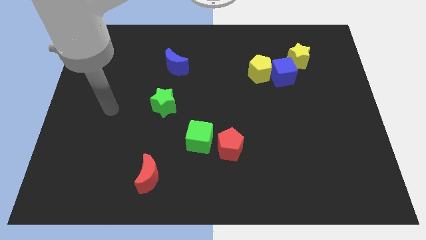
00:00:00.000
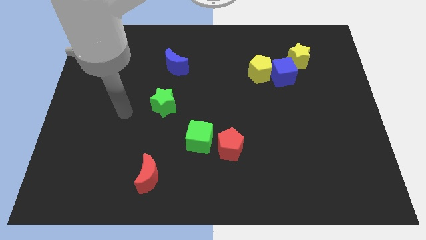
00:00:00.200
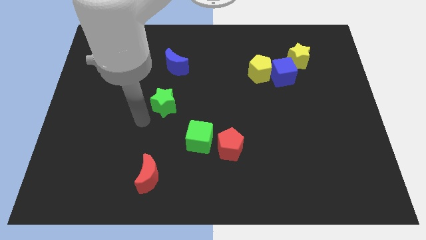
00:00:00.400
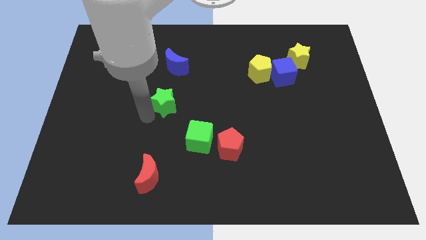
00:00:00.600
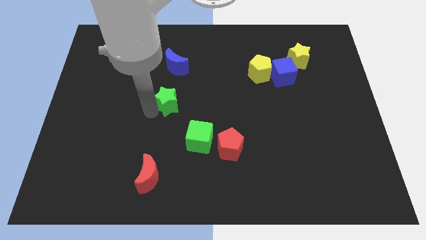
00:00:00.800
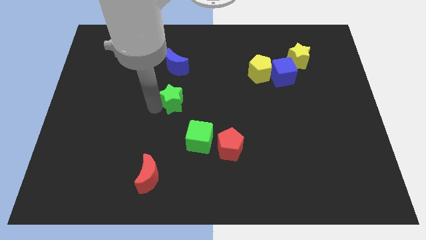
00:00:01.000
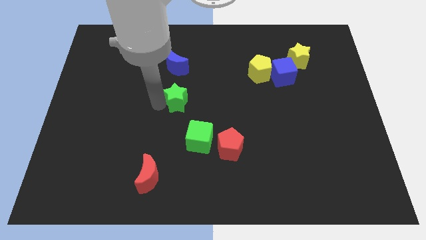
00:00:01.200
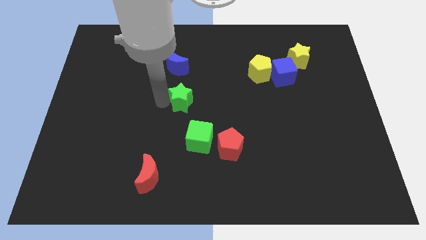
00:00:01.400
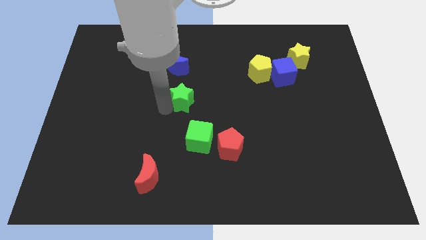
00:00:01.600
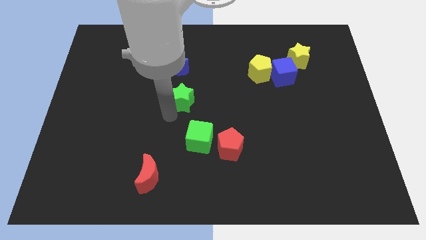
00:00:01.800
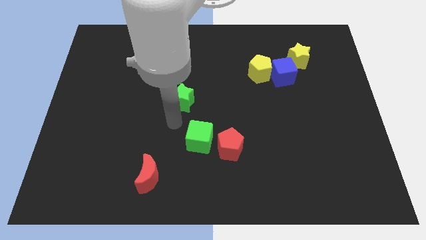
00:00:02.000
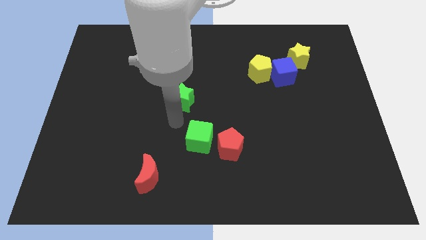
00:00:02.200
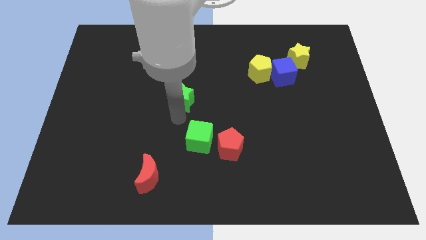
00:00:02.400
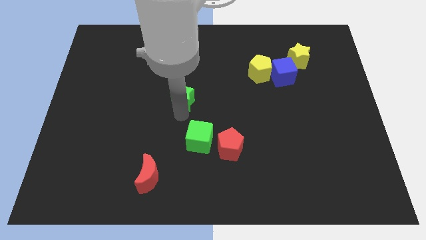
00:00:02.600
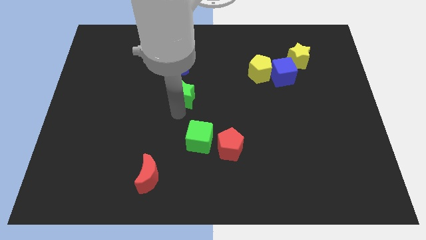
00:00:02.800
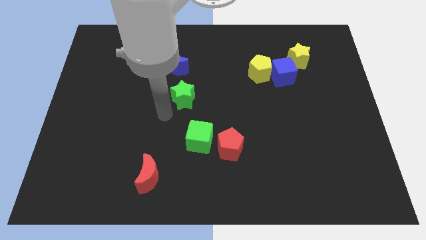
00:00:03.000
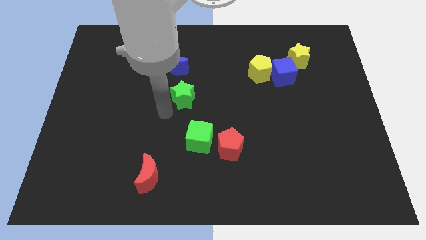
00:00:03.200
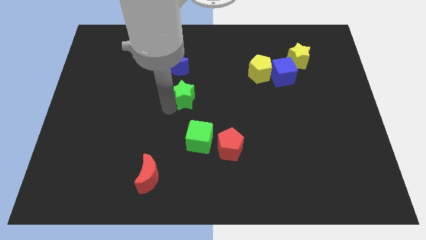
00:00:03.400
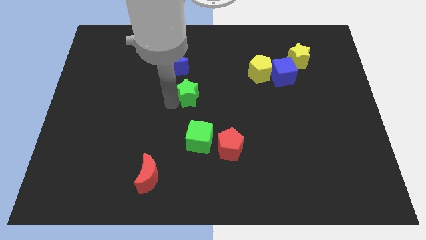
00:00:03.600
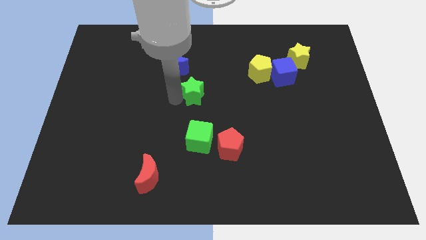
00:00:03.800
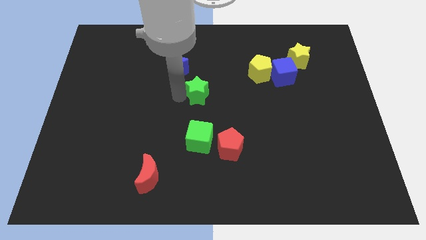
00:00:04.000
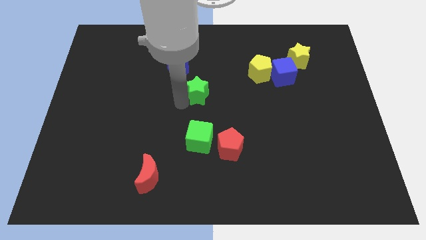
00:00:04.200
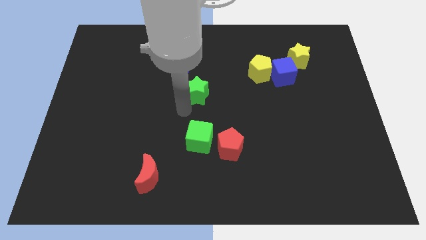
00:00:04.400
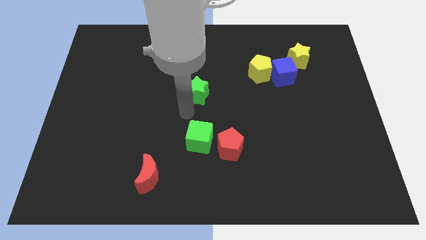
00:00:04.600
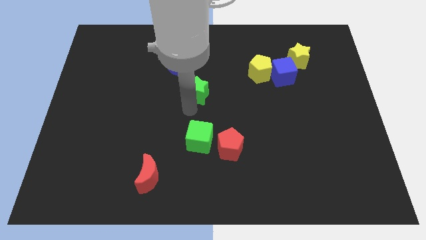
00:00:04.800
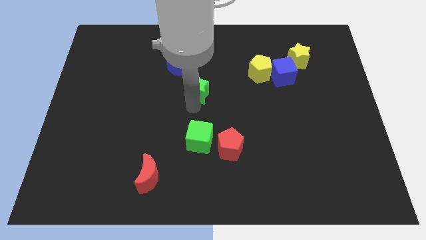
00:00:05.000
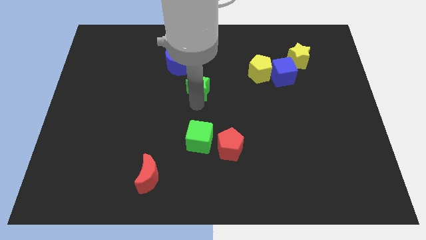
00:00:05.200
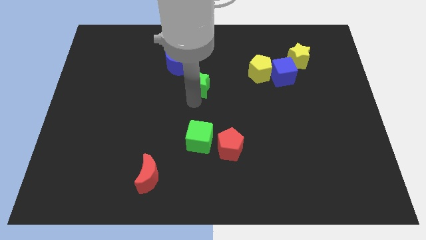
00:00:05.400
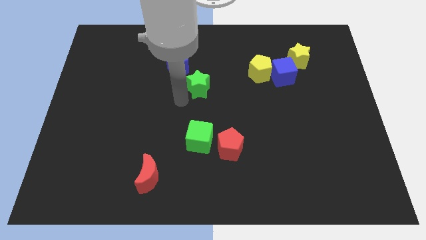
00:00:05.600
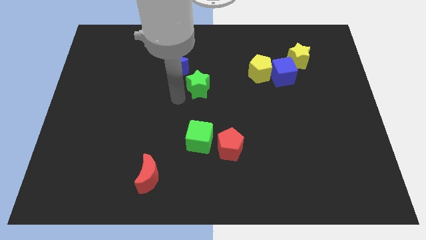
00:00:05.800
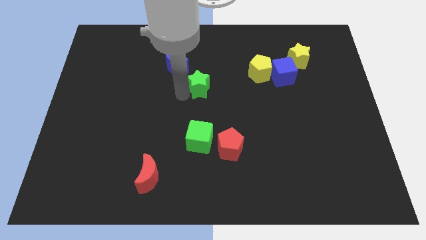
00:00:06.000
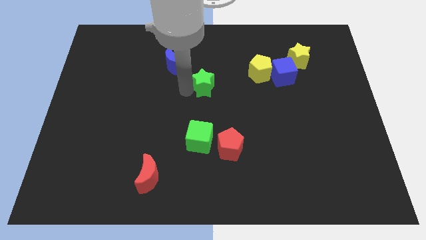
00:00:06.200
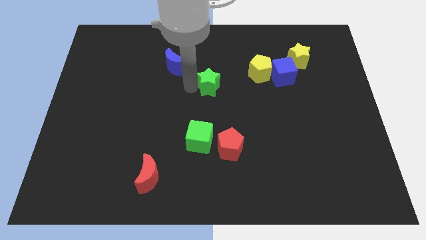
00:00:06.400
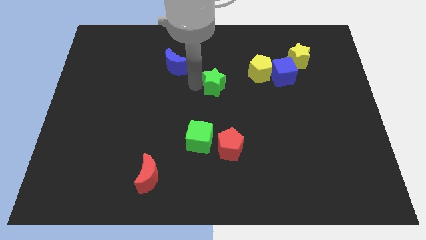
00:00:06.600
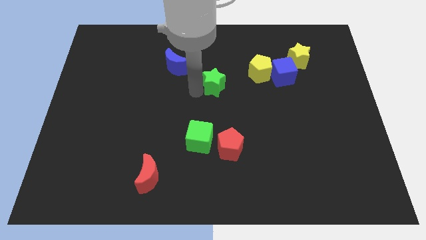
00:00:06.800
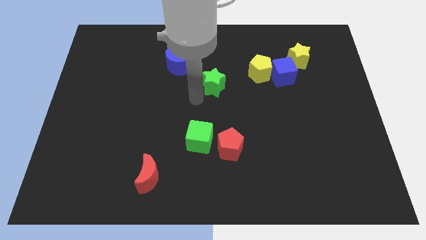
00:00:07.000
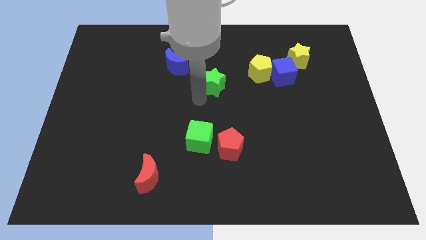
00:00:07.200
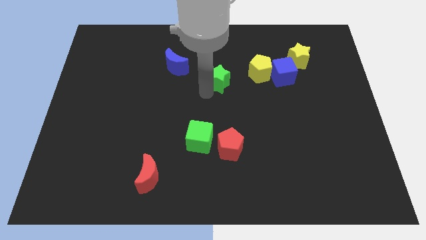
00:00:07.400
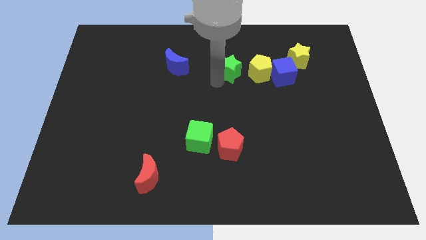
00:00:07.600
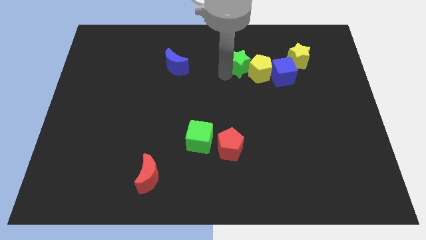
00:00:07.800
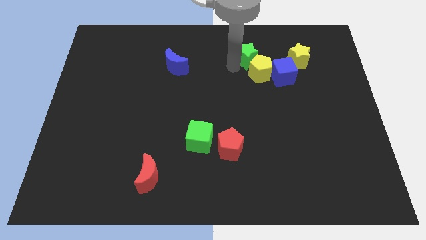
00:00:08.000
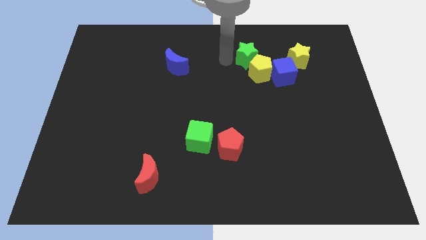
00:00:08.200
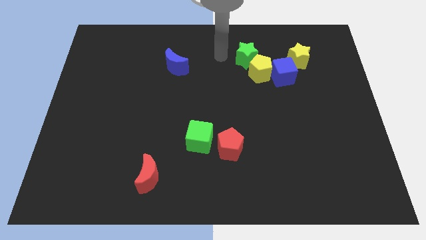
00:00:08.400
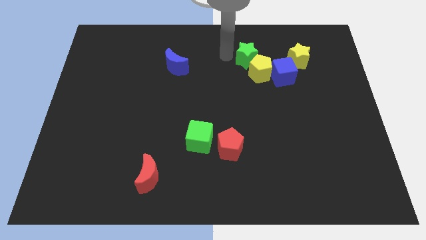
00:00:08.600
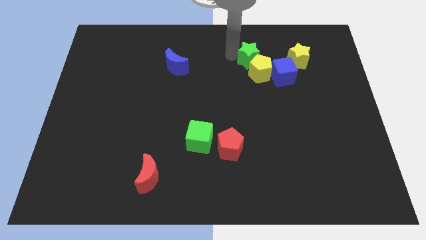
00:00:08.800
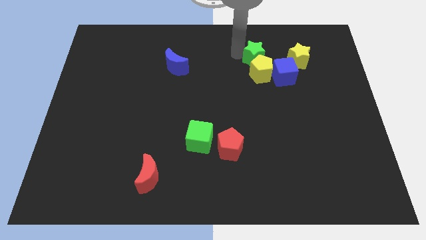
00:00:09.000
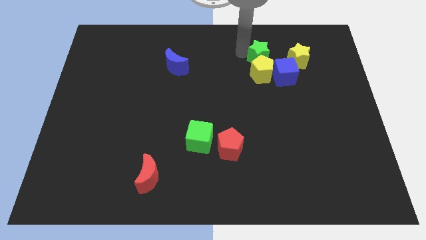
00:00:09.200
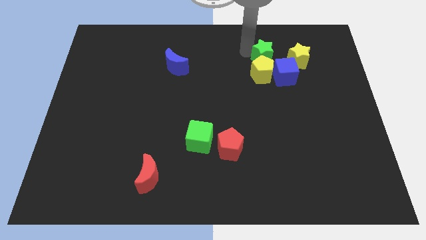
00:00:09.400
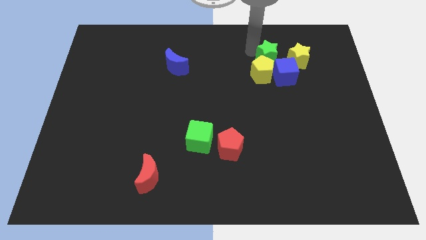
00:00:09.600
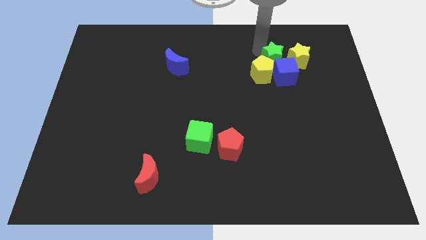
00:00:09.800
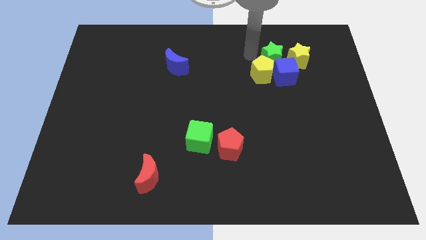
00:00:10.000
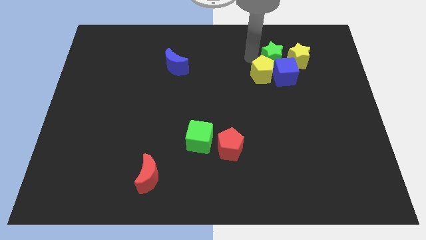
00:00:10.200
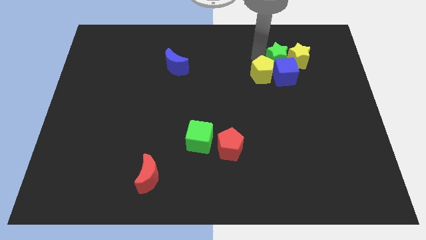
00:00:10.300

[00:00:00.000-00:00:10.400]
put the green star to the yellow star

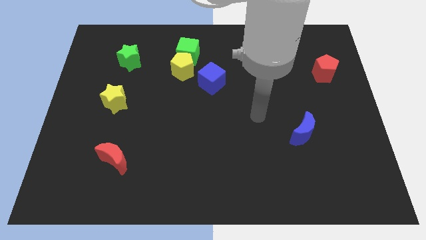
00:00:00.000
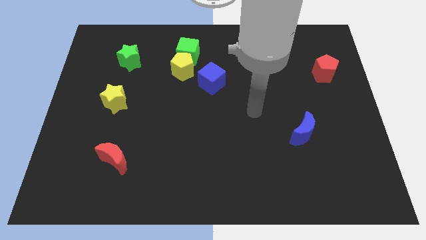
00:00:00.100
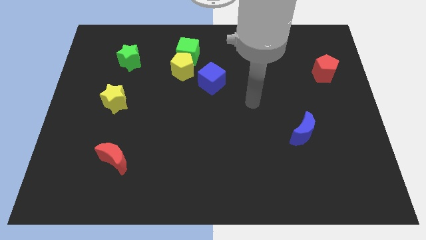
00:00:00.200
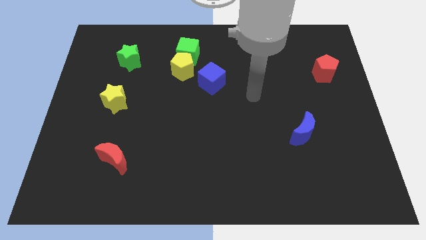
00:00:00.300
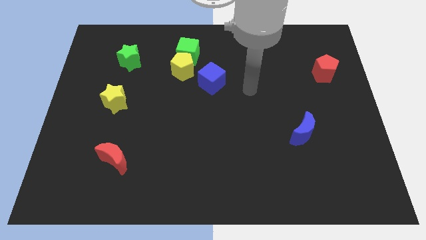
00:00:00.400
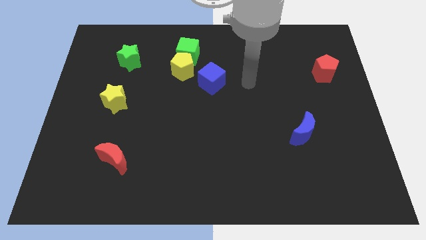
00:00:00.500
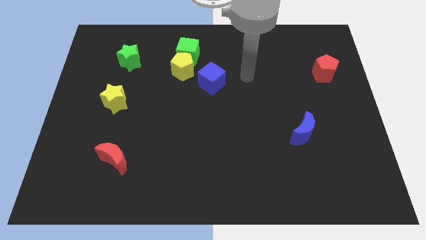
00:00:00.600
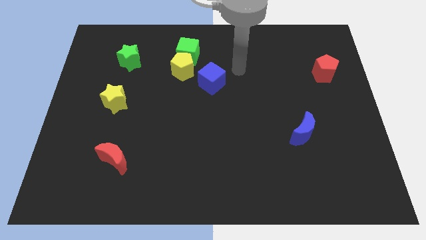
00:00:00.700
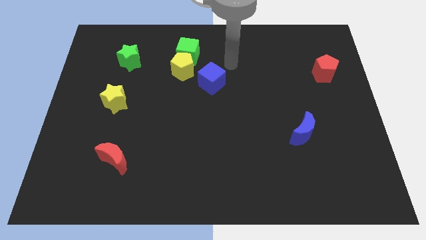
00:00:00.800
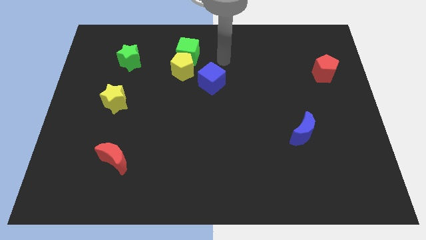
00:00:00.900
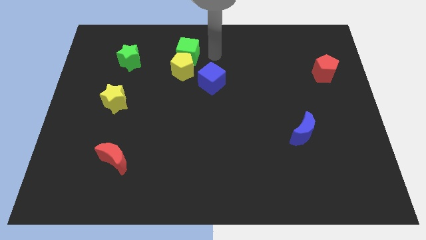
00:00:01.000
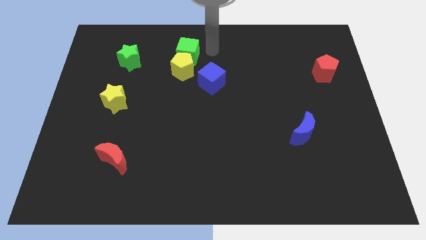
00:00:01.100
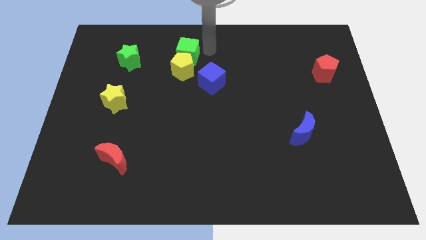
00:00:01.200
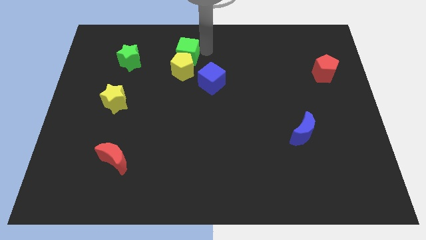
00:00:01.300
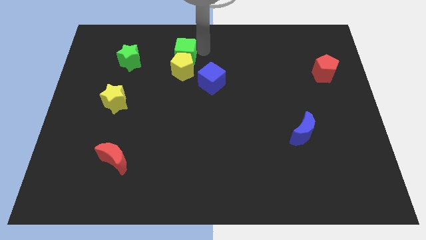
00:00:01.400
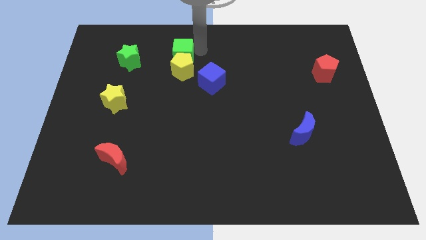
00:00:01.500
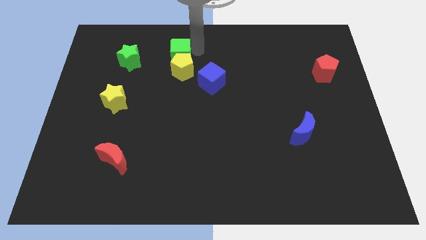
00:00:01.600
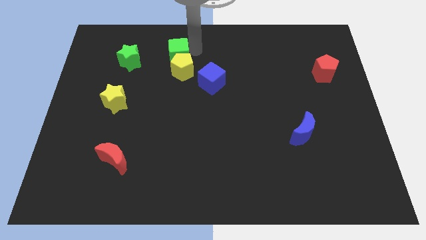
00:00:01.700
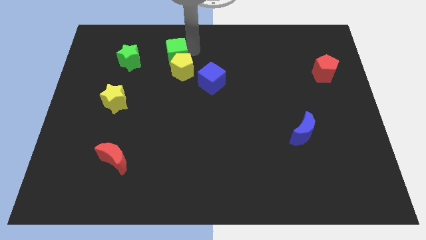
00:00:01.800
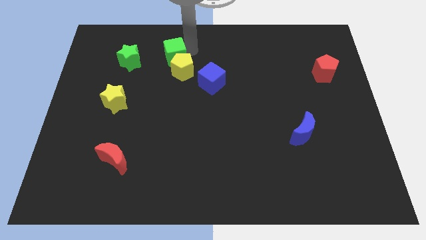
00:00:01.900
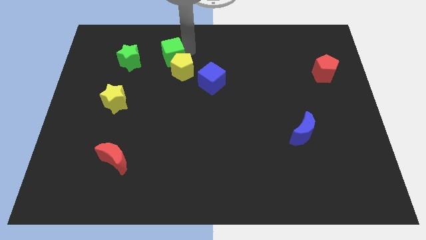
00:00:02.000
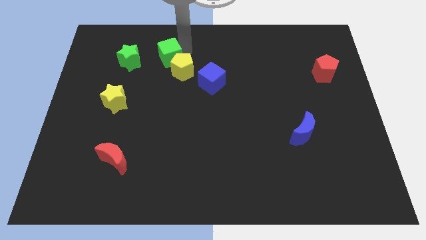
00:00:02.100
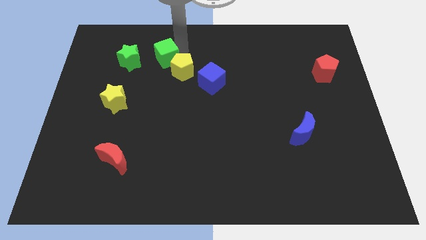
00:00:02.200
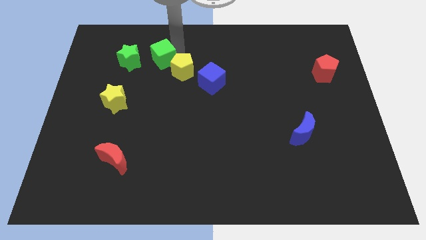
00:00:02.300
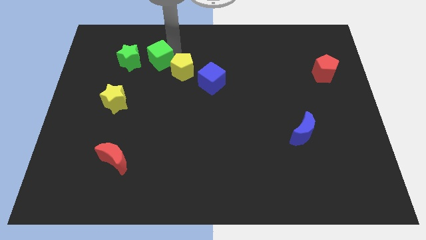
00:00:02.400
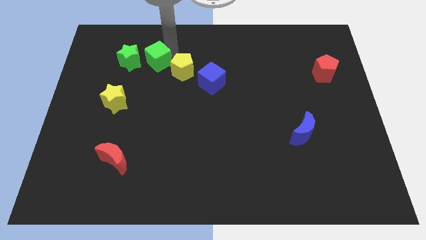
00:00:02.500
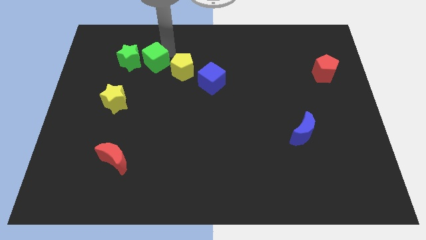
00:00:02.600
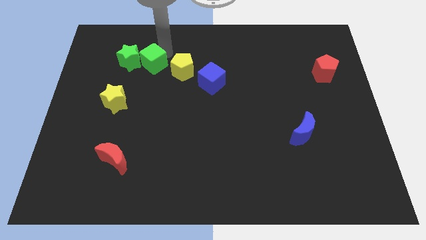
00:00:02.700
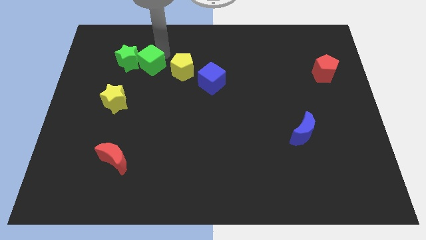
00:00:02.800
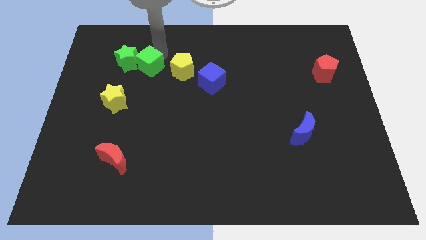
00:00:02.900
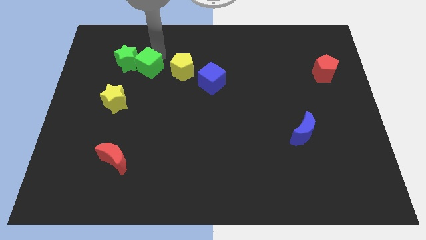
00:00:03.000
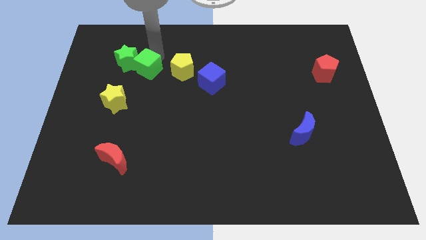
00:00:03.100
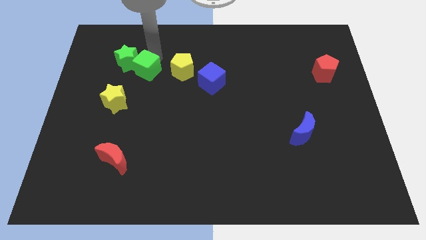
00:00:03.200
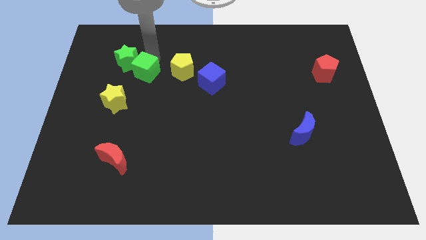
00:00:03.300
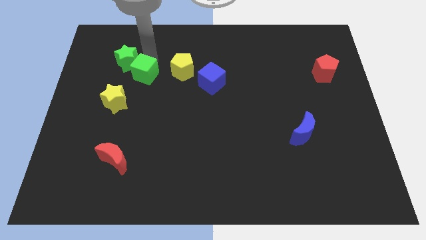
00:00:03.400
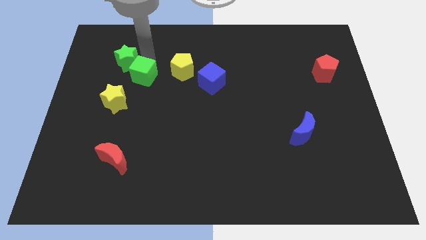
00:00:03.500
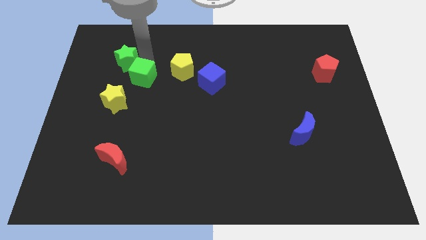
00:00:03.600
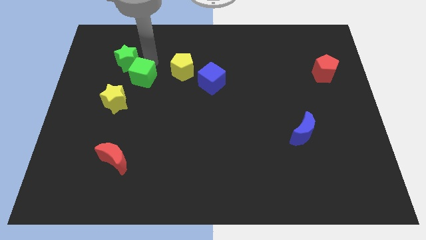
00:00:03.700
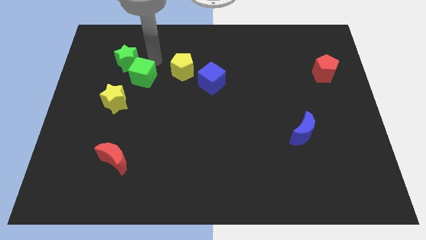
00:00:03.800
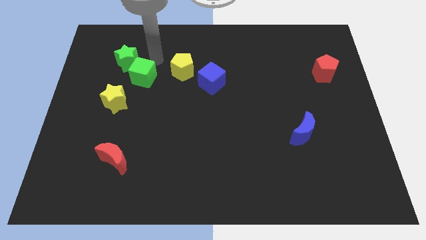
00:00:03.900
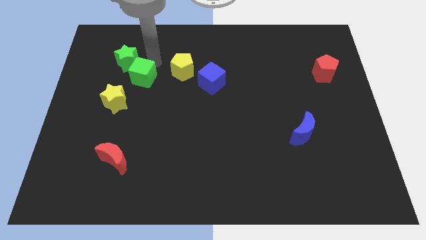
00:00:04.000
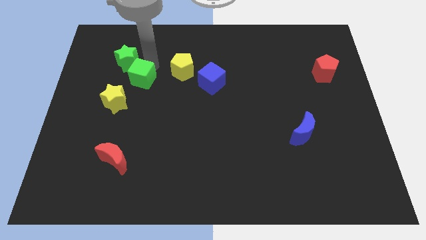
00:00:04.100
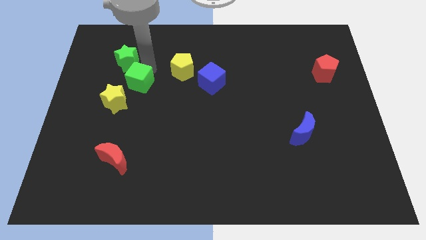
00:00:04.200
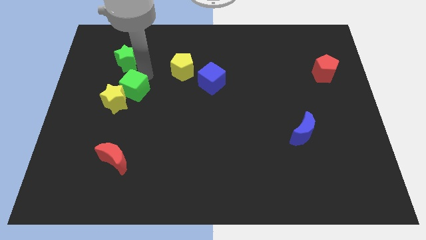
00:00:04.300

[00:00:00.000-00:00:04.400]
push the green cube close to the yellow star
